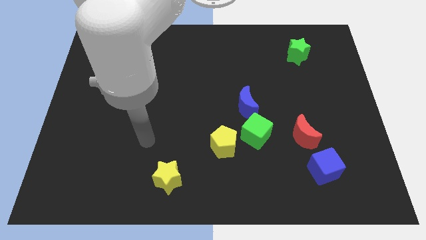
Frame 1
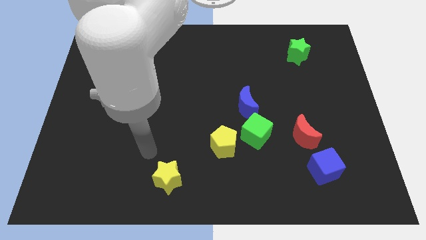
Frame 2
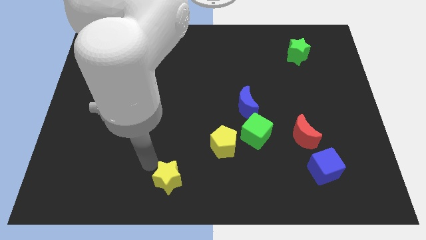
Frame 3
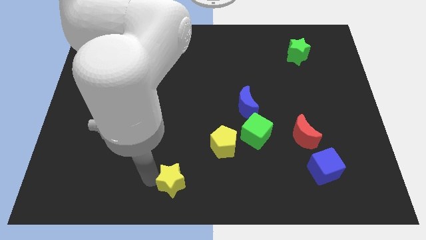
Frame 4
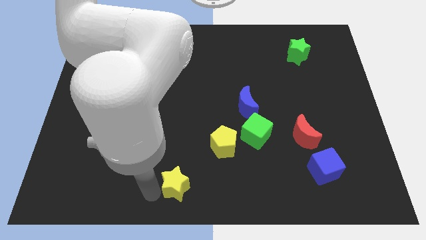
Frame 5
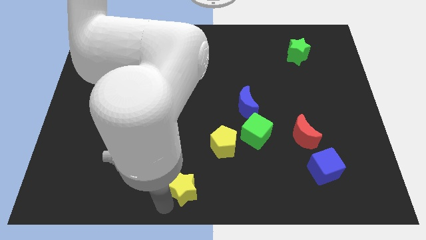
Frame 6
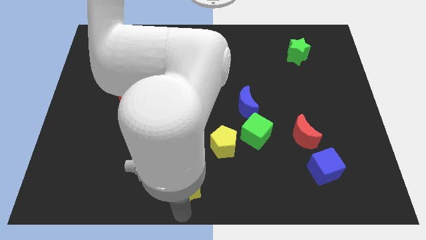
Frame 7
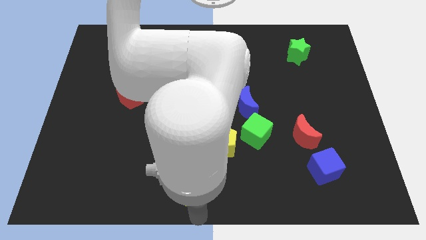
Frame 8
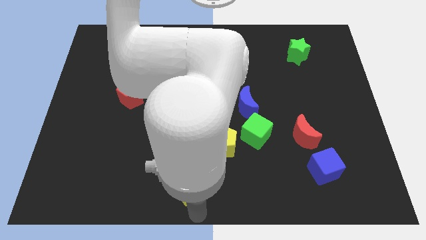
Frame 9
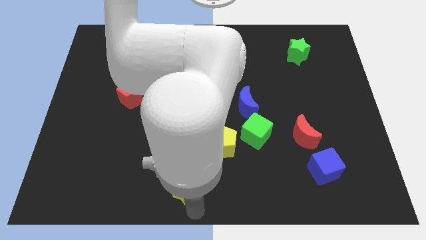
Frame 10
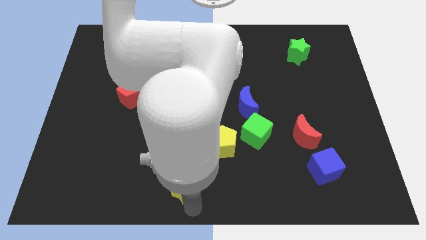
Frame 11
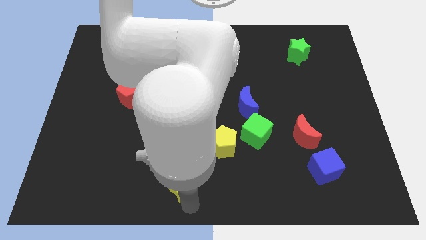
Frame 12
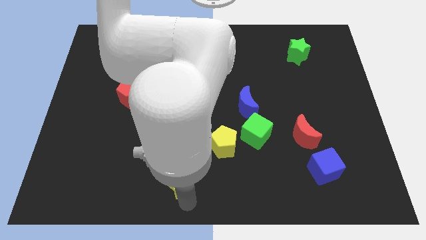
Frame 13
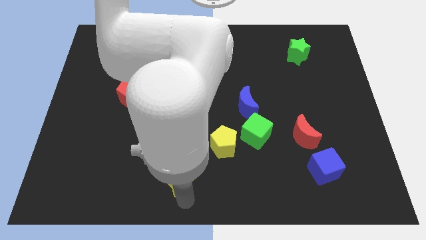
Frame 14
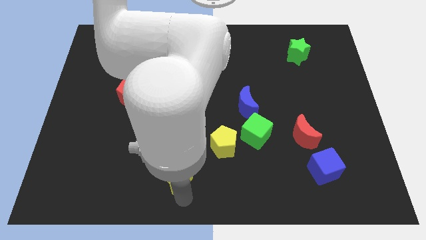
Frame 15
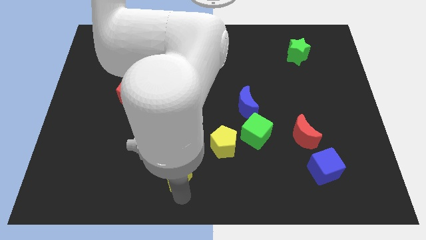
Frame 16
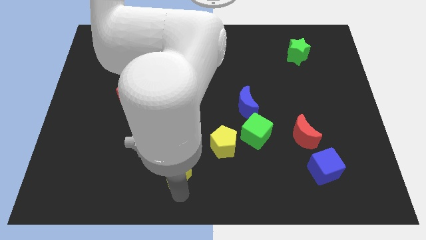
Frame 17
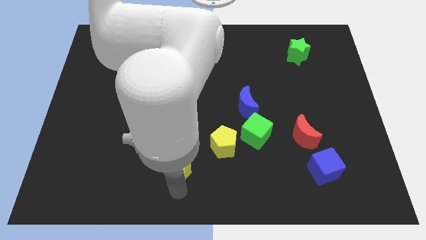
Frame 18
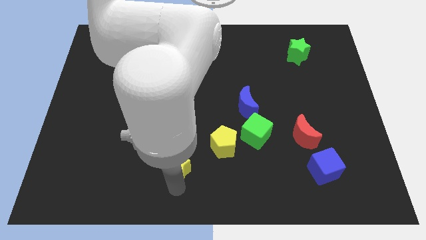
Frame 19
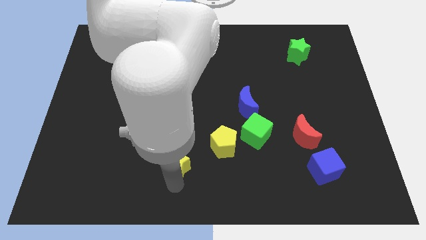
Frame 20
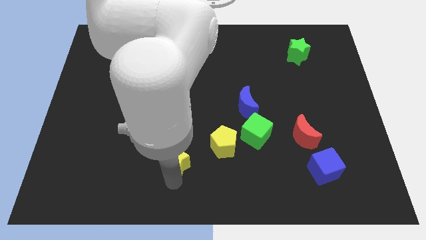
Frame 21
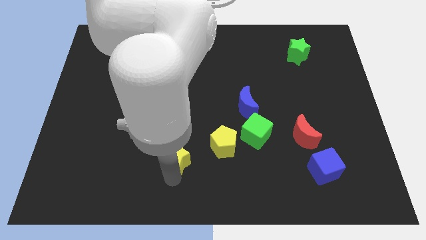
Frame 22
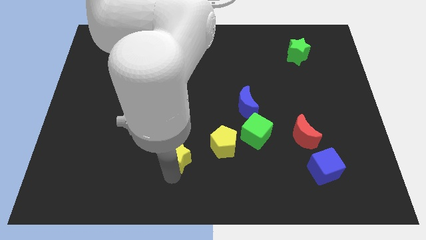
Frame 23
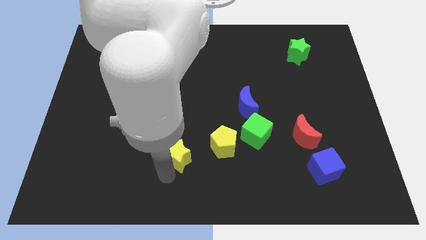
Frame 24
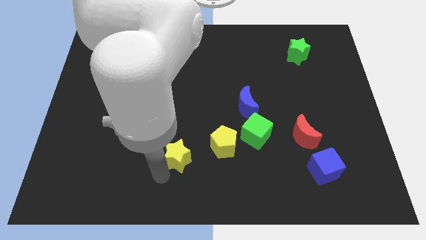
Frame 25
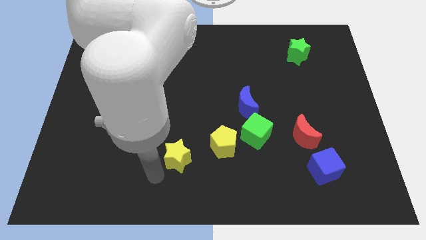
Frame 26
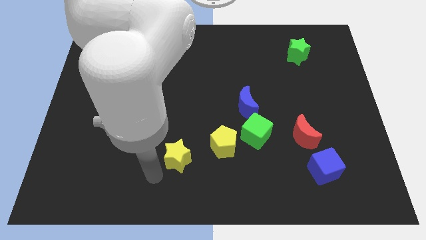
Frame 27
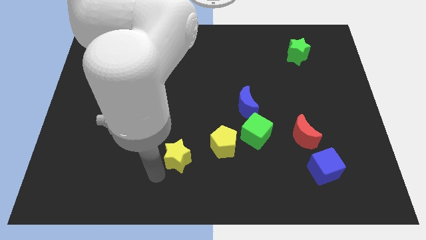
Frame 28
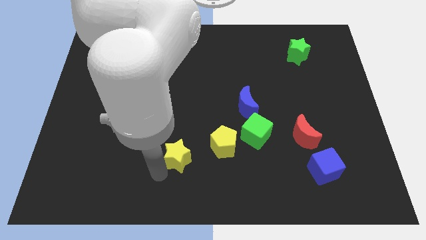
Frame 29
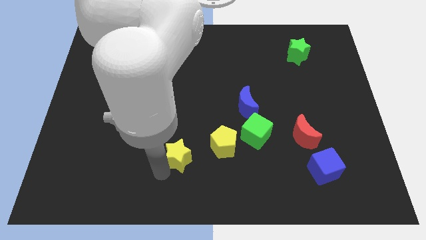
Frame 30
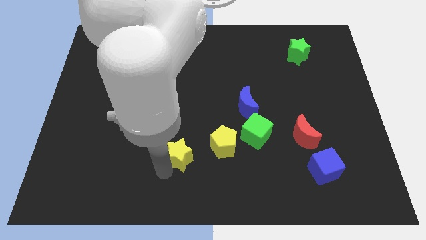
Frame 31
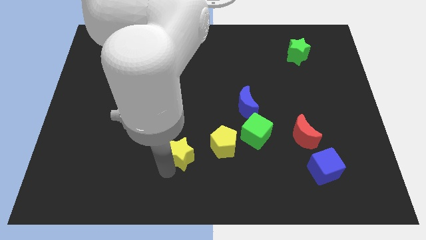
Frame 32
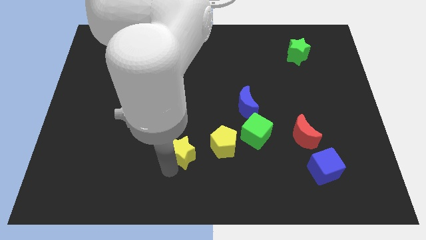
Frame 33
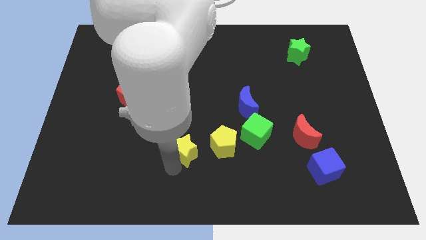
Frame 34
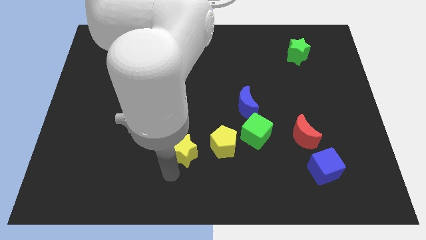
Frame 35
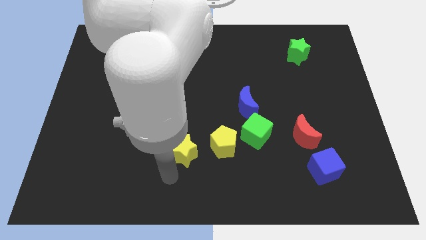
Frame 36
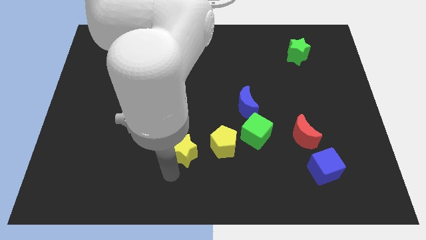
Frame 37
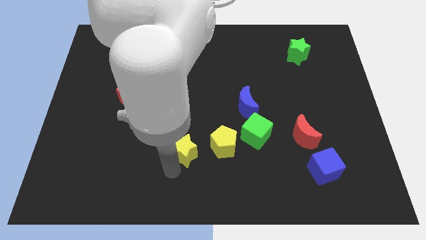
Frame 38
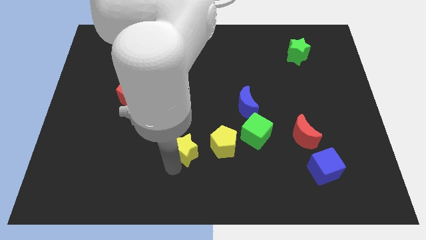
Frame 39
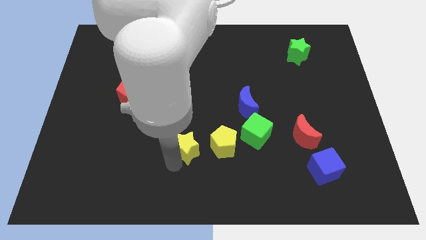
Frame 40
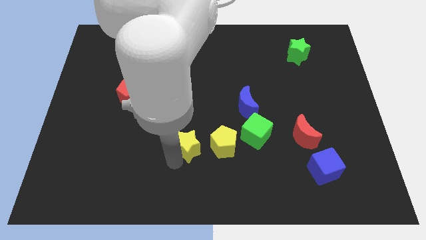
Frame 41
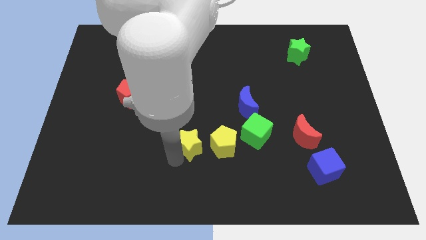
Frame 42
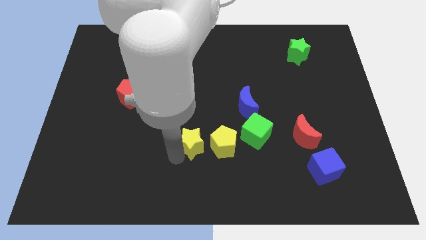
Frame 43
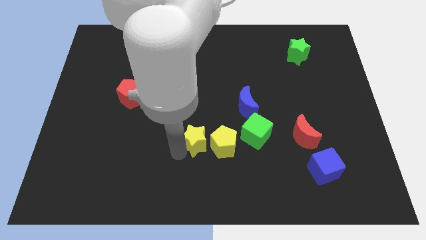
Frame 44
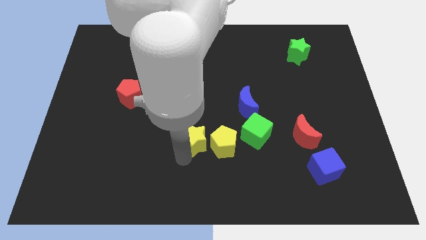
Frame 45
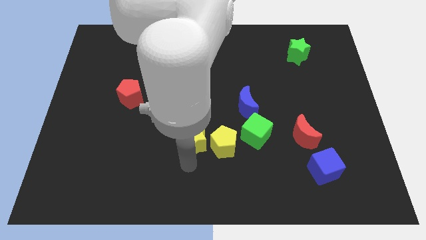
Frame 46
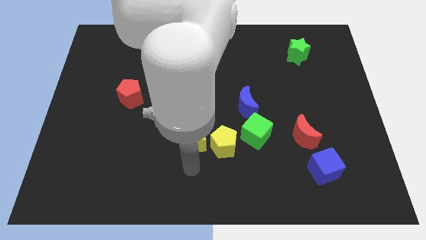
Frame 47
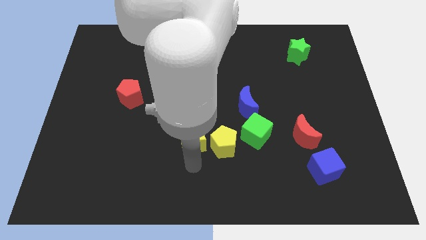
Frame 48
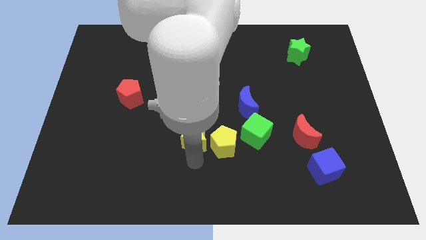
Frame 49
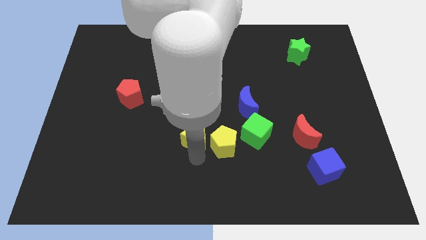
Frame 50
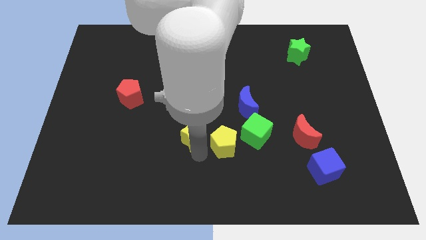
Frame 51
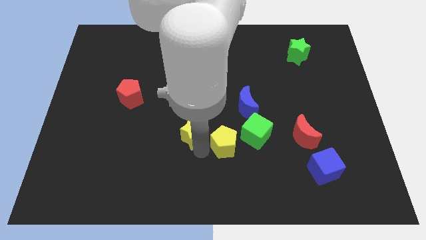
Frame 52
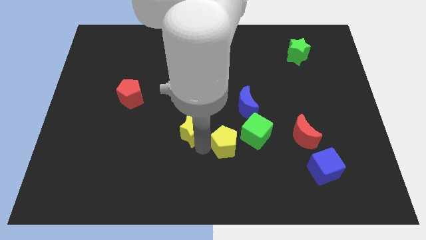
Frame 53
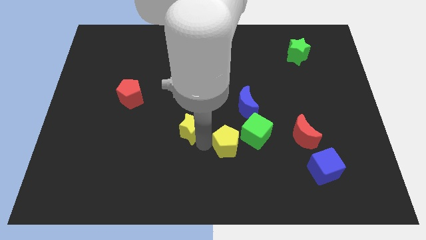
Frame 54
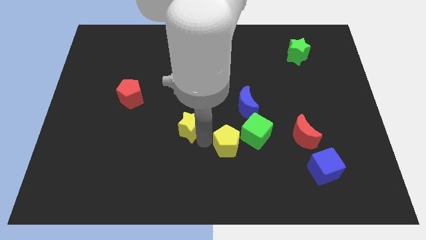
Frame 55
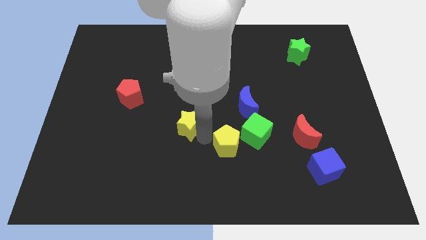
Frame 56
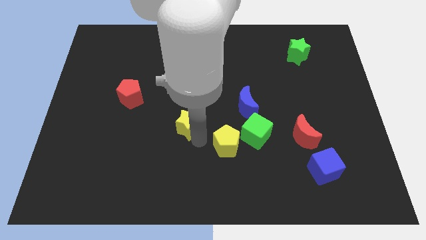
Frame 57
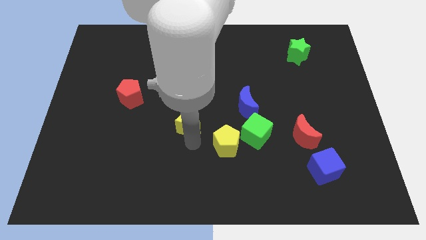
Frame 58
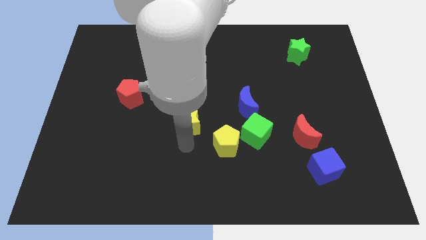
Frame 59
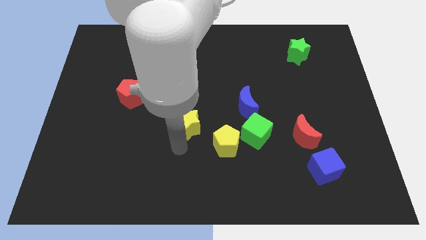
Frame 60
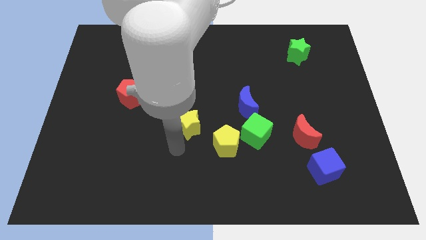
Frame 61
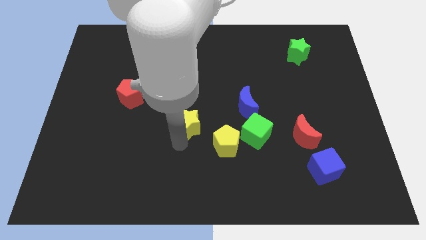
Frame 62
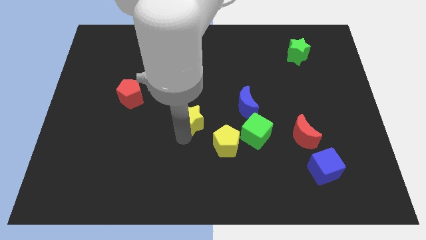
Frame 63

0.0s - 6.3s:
put the yellow star to the left side of the blue moon

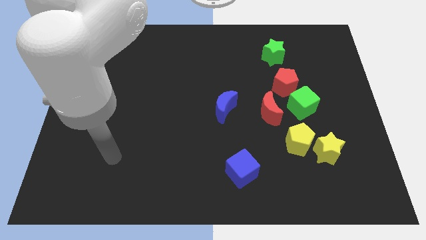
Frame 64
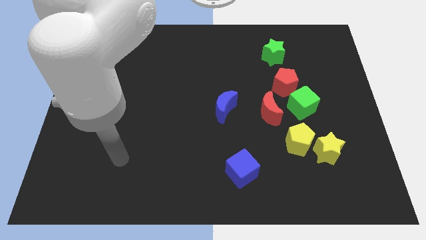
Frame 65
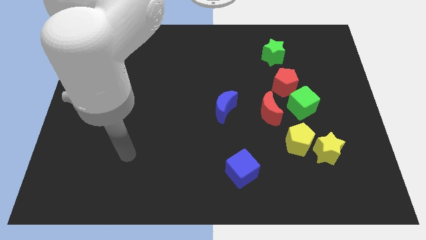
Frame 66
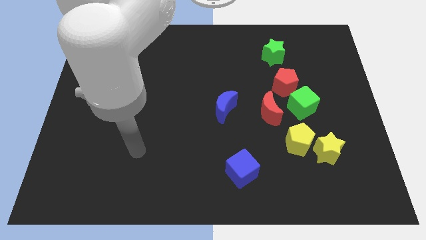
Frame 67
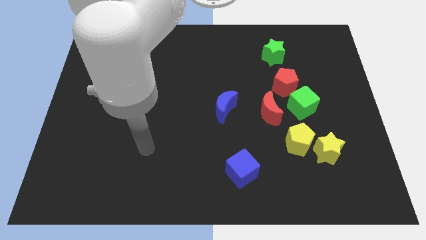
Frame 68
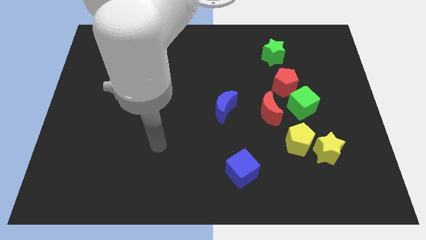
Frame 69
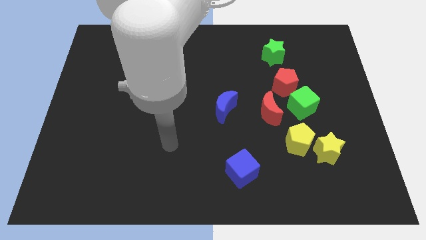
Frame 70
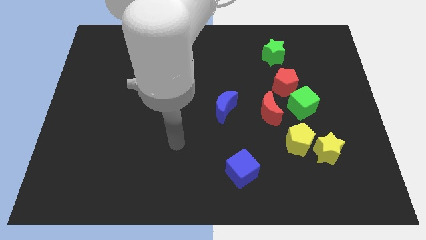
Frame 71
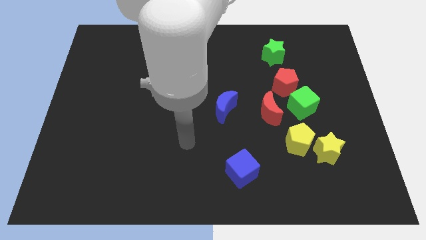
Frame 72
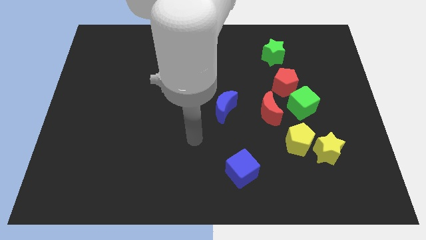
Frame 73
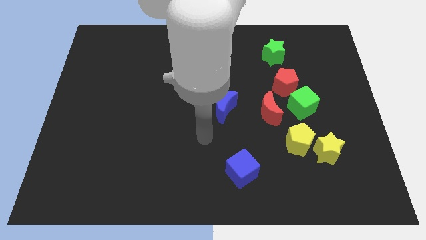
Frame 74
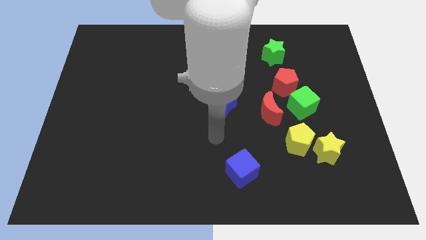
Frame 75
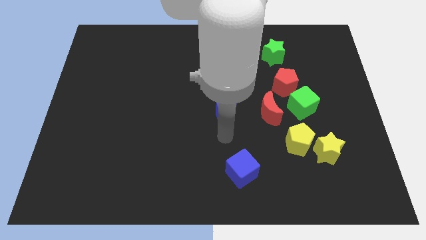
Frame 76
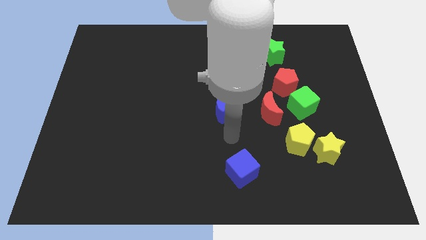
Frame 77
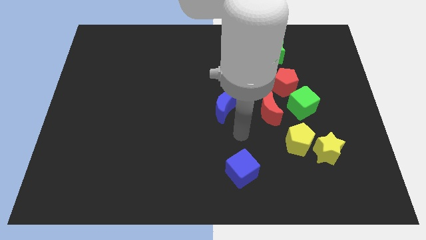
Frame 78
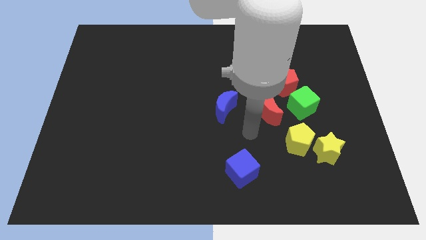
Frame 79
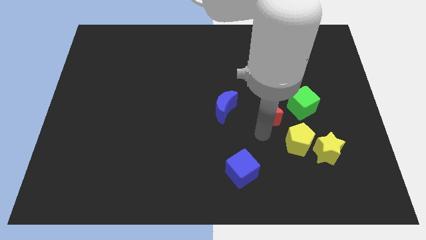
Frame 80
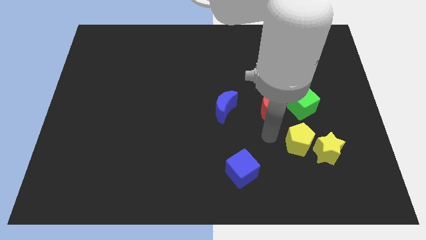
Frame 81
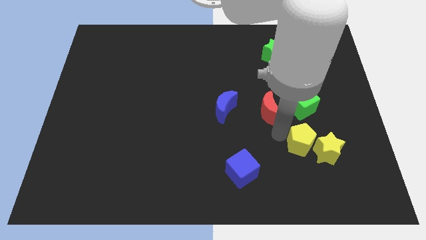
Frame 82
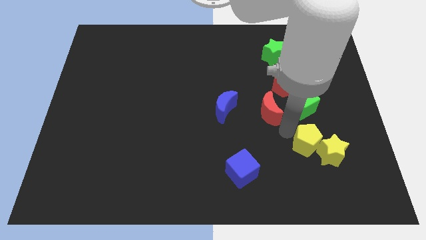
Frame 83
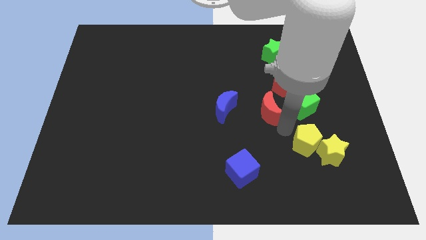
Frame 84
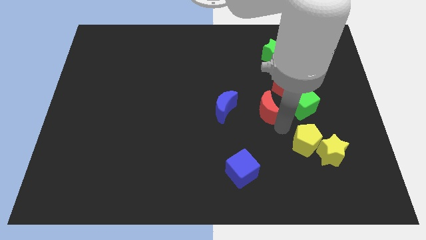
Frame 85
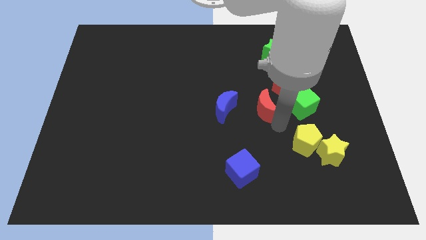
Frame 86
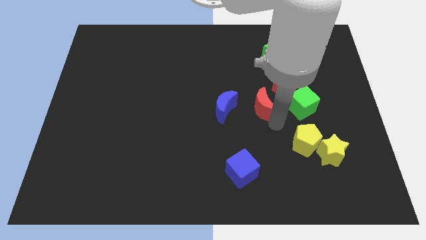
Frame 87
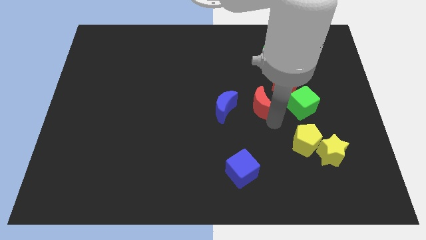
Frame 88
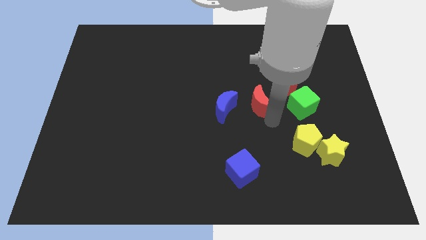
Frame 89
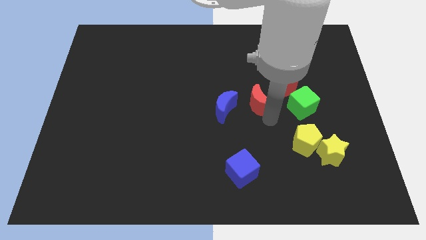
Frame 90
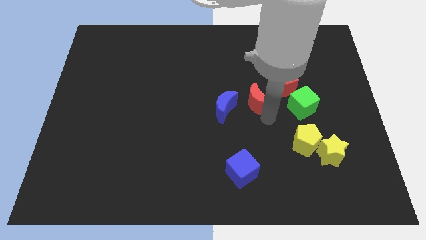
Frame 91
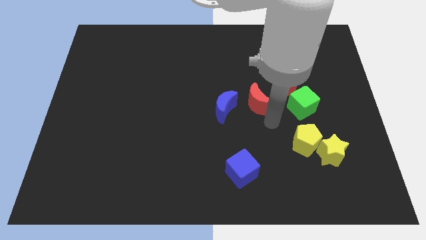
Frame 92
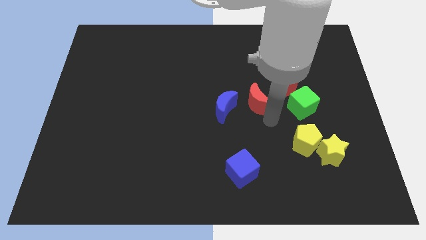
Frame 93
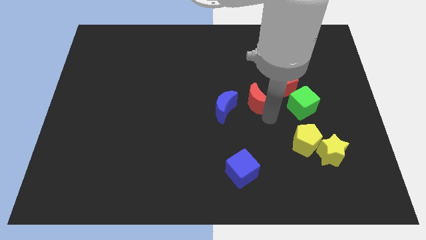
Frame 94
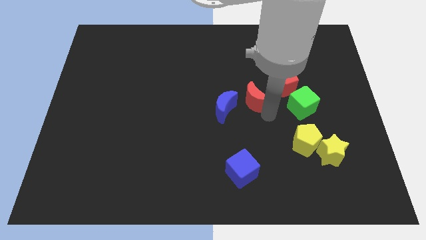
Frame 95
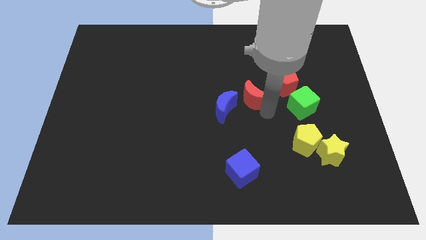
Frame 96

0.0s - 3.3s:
slide the red moon to the left side of the red pentagon
